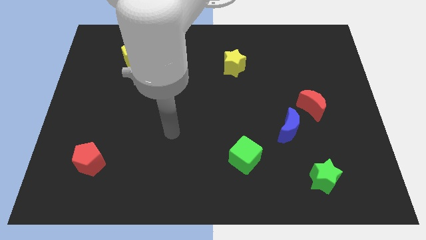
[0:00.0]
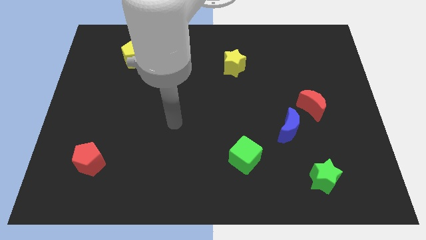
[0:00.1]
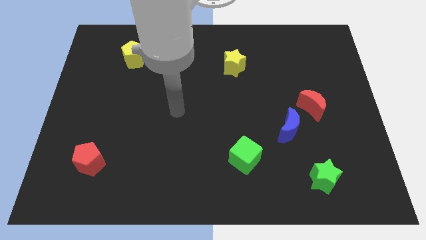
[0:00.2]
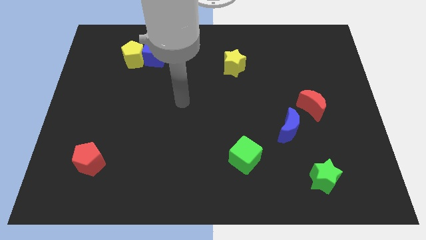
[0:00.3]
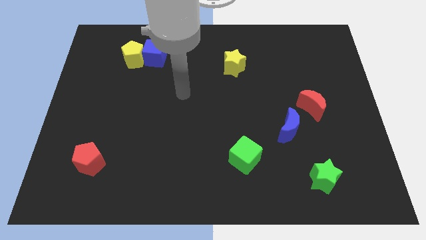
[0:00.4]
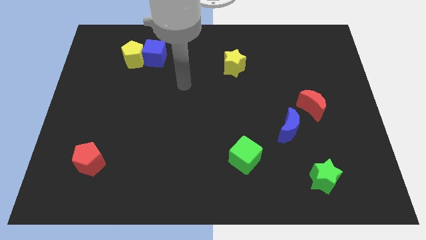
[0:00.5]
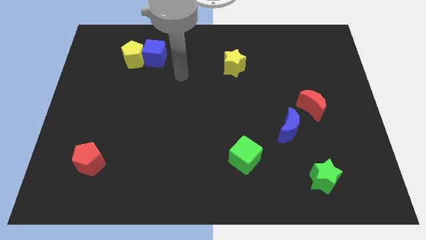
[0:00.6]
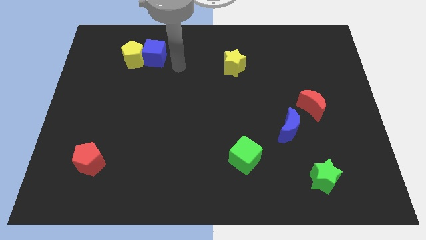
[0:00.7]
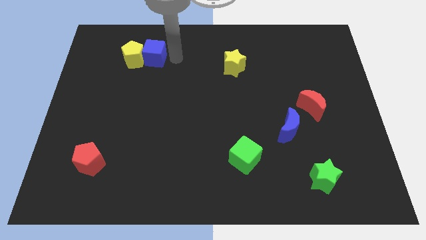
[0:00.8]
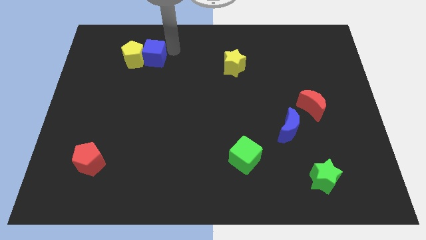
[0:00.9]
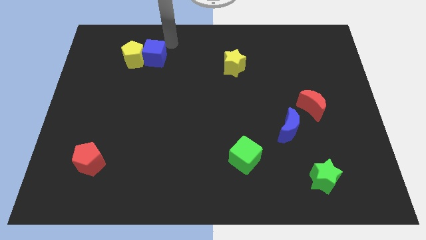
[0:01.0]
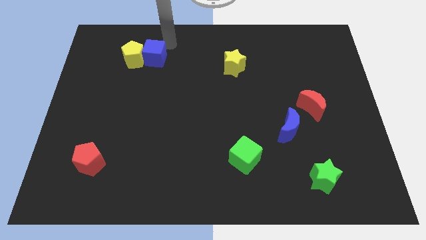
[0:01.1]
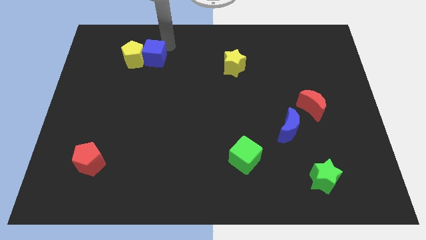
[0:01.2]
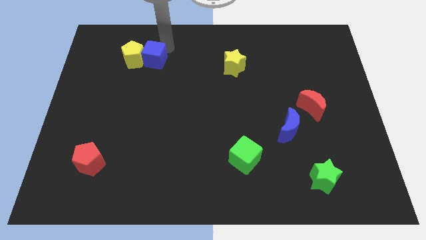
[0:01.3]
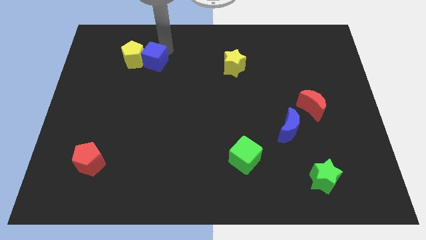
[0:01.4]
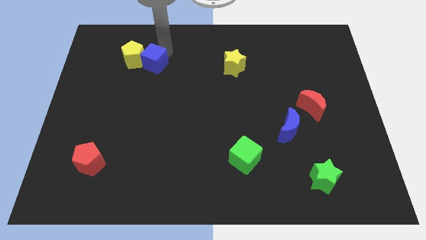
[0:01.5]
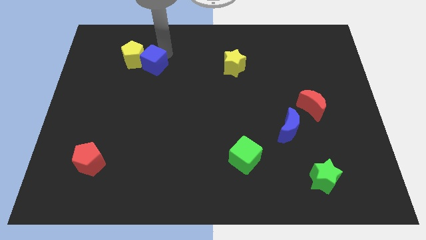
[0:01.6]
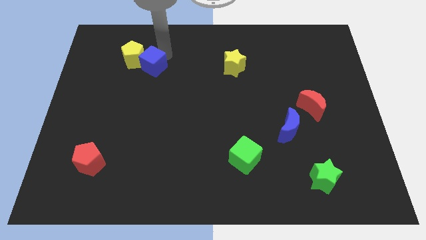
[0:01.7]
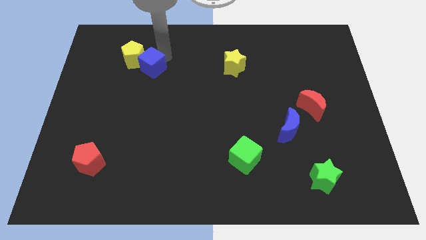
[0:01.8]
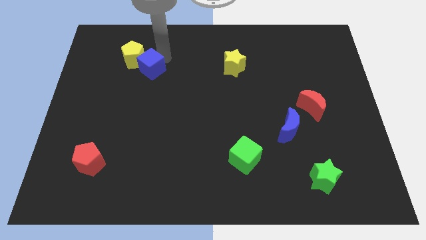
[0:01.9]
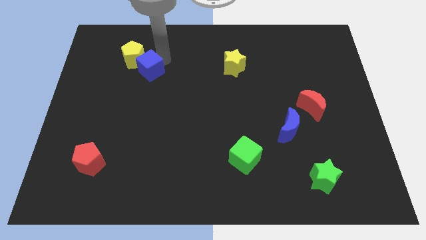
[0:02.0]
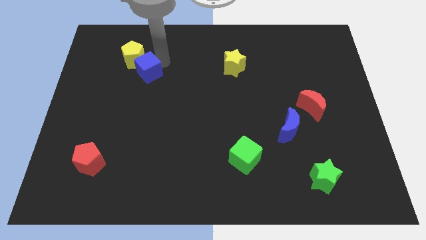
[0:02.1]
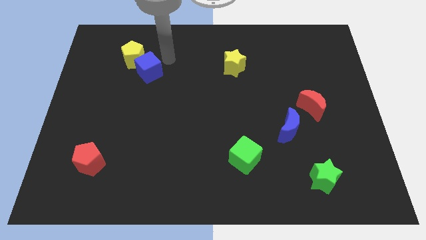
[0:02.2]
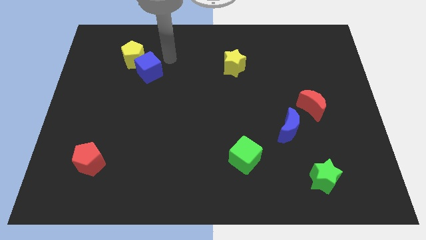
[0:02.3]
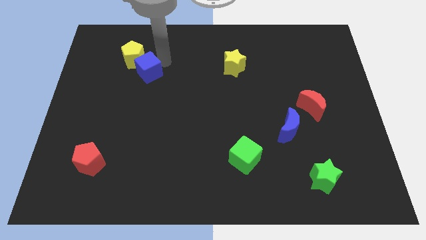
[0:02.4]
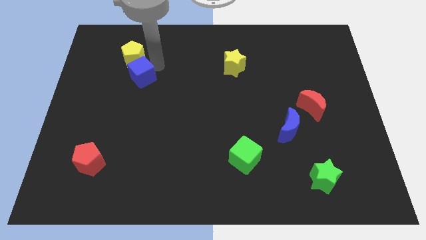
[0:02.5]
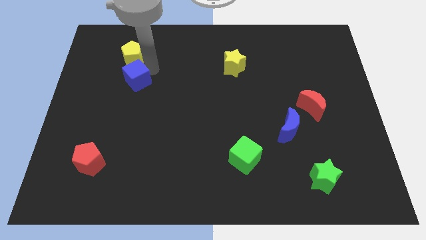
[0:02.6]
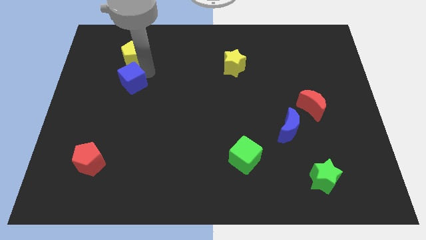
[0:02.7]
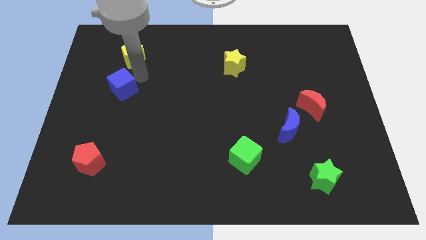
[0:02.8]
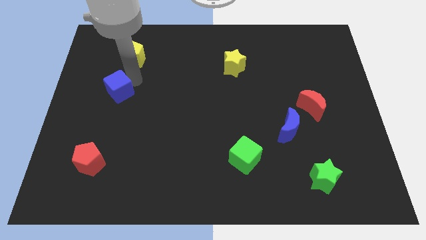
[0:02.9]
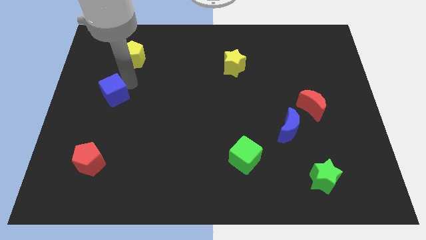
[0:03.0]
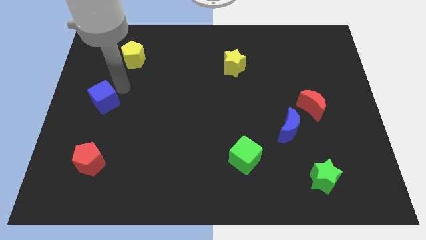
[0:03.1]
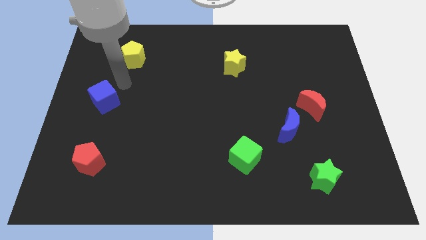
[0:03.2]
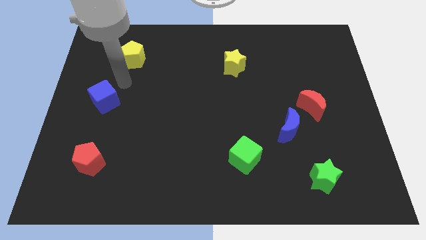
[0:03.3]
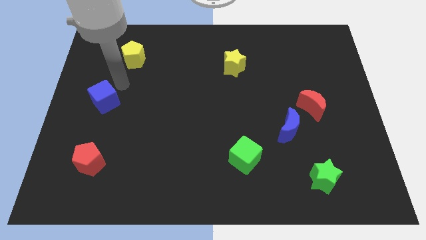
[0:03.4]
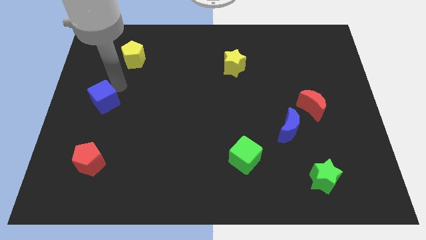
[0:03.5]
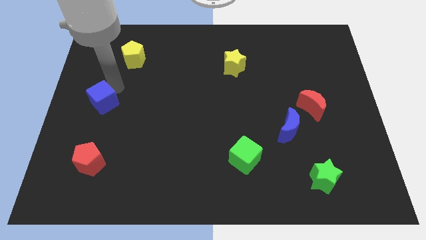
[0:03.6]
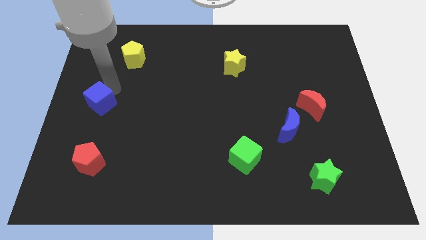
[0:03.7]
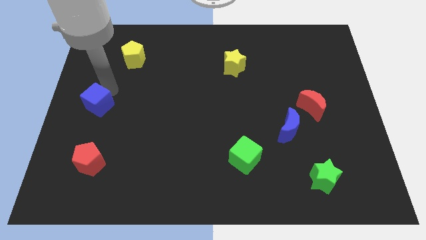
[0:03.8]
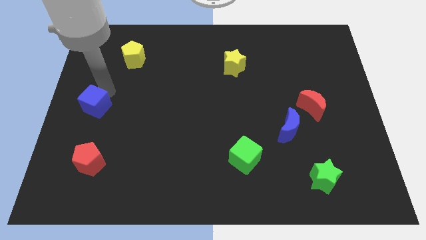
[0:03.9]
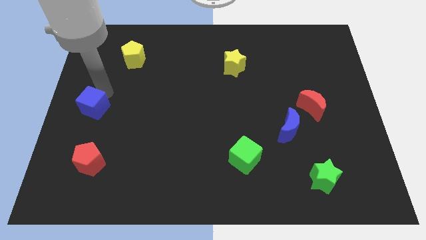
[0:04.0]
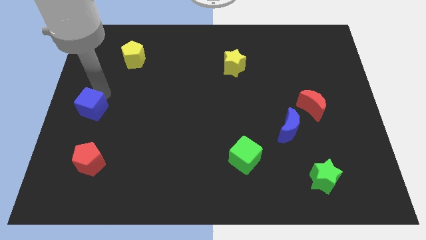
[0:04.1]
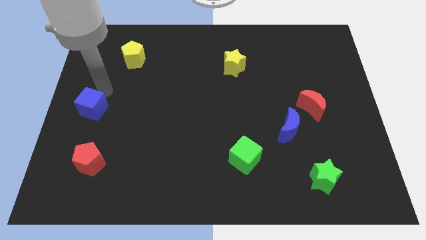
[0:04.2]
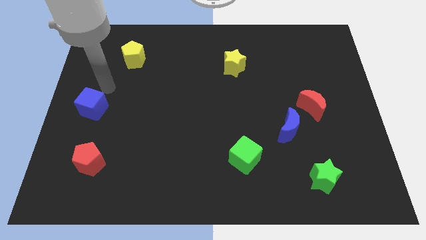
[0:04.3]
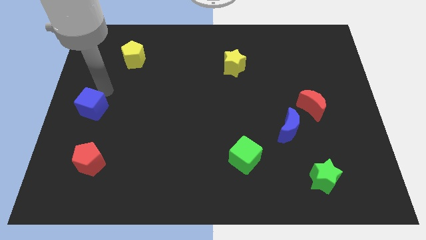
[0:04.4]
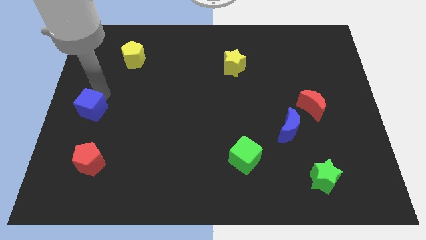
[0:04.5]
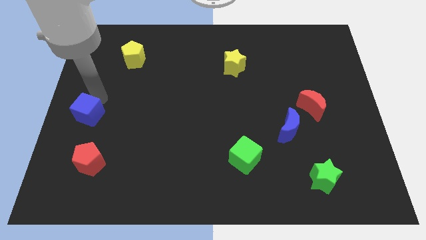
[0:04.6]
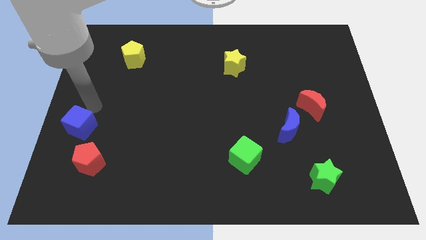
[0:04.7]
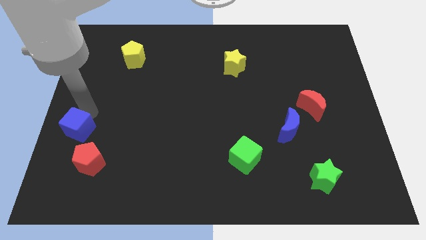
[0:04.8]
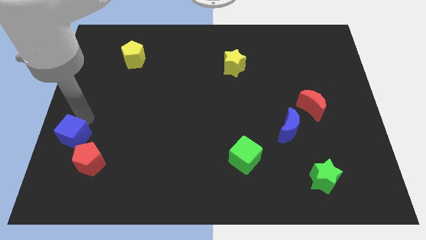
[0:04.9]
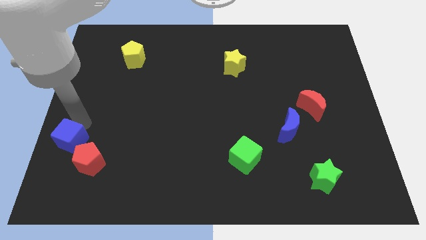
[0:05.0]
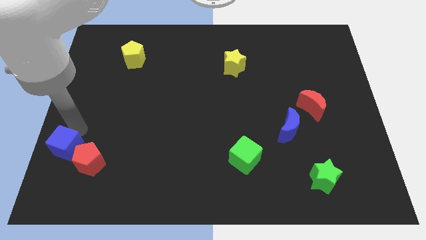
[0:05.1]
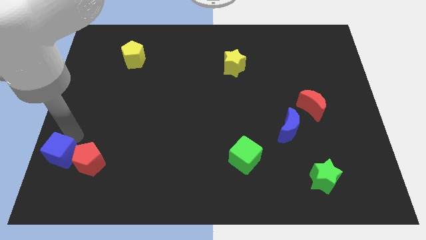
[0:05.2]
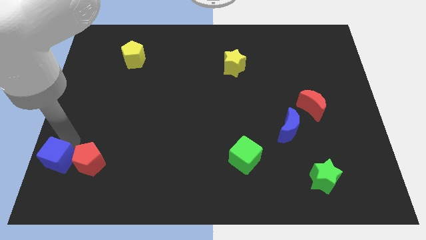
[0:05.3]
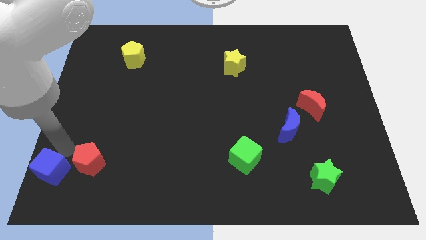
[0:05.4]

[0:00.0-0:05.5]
put the blue cube to the lower left corner

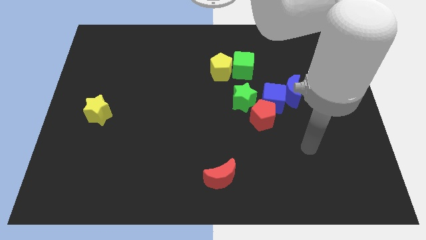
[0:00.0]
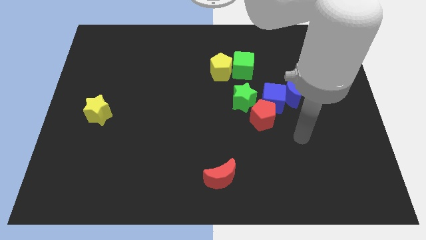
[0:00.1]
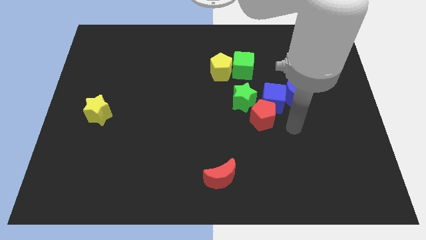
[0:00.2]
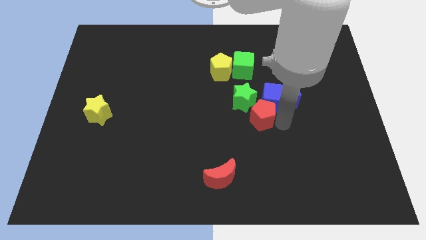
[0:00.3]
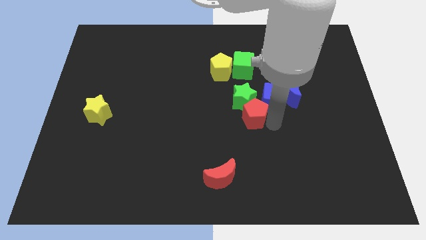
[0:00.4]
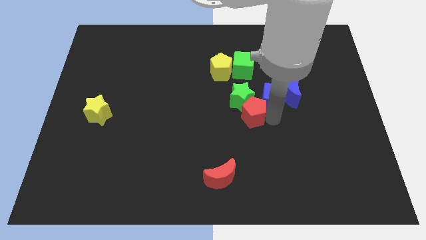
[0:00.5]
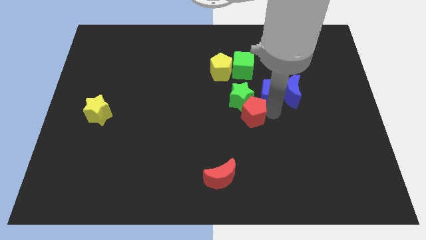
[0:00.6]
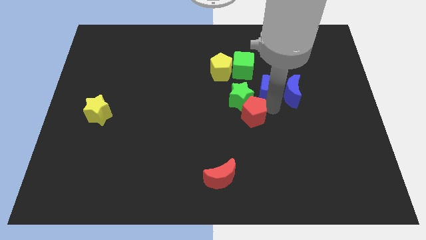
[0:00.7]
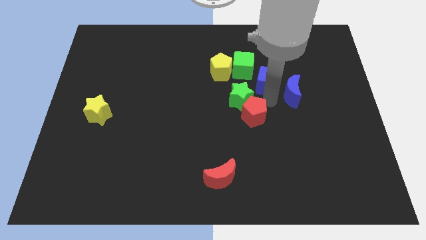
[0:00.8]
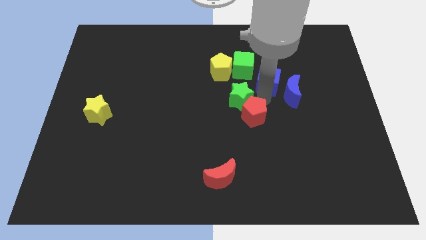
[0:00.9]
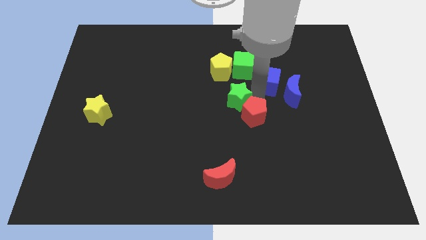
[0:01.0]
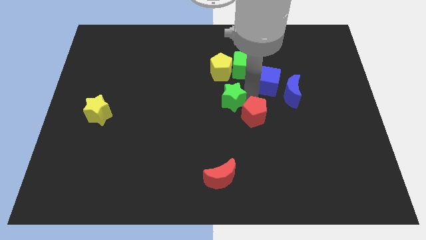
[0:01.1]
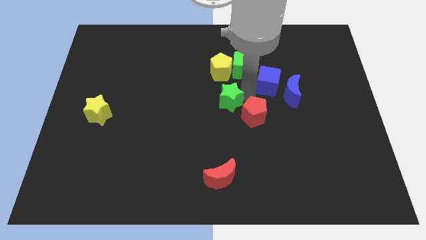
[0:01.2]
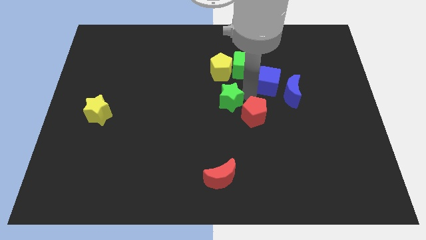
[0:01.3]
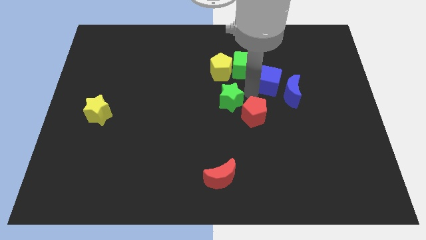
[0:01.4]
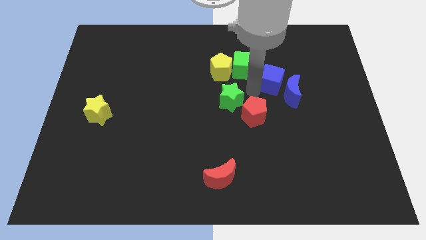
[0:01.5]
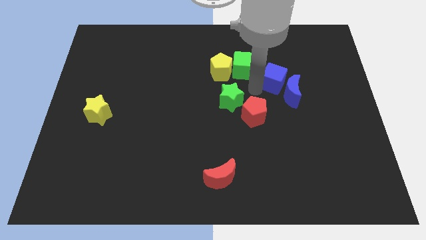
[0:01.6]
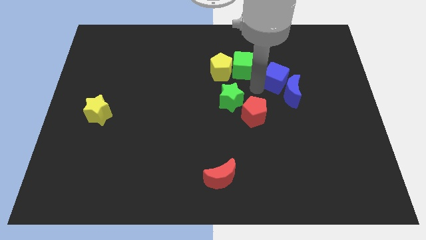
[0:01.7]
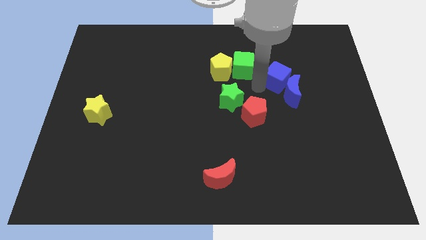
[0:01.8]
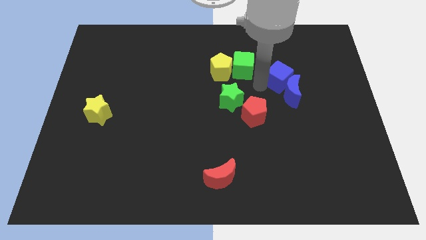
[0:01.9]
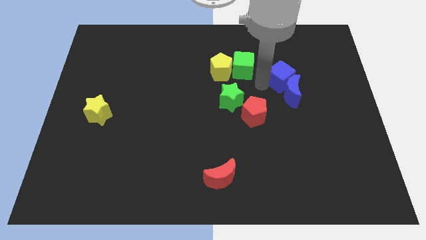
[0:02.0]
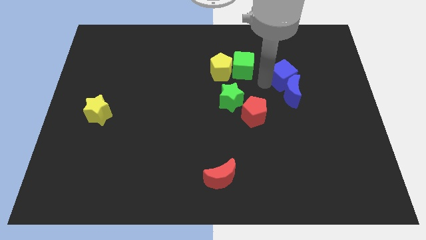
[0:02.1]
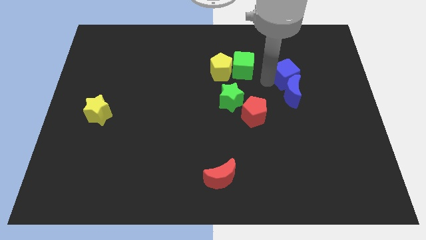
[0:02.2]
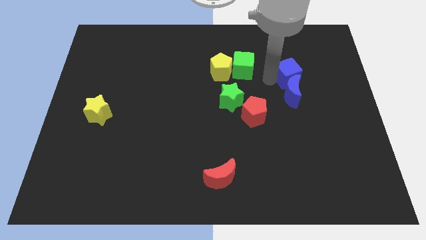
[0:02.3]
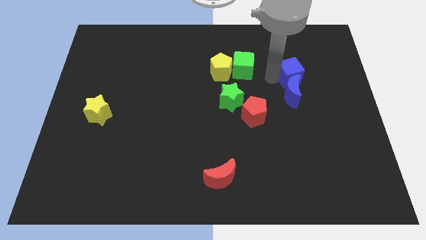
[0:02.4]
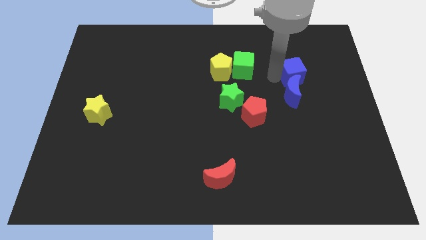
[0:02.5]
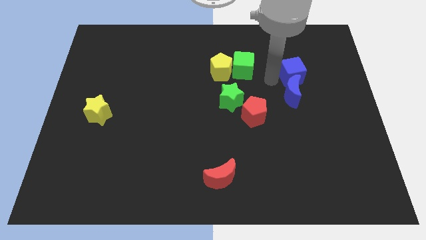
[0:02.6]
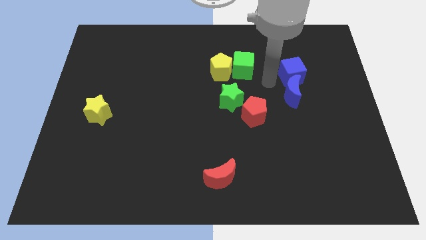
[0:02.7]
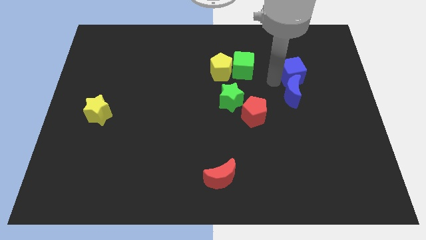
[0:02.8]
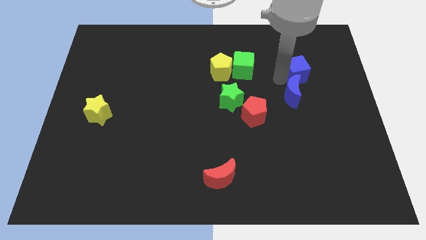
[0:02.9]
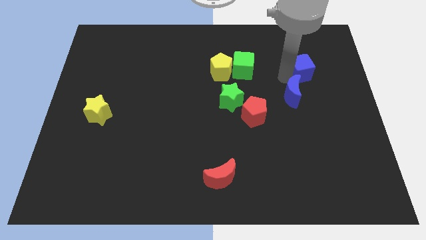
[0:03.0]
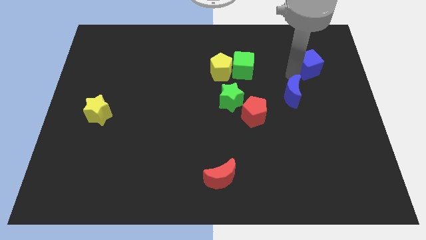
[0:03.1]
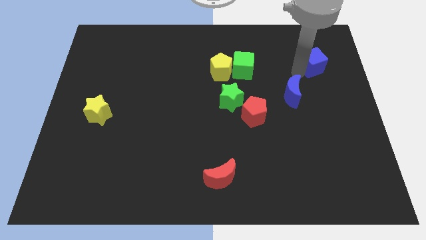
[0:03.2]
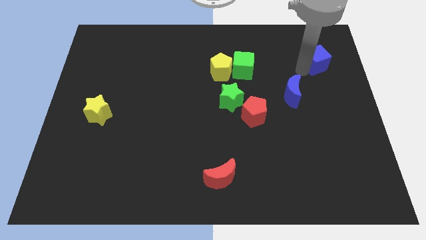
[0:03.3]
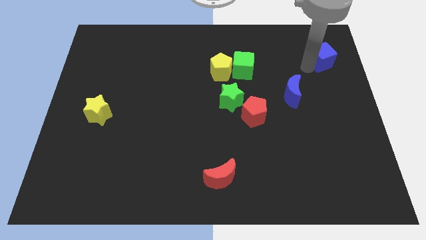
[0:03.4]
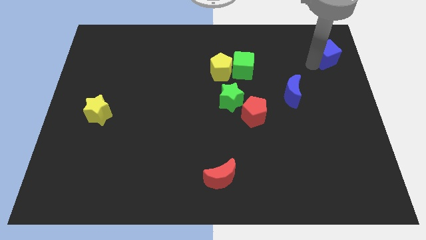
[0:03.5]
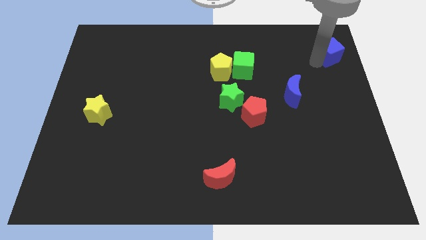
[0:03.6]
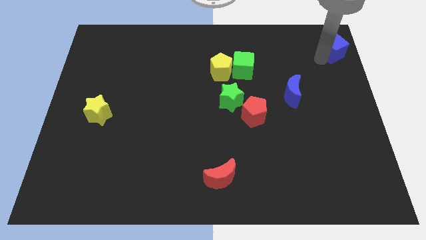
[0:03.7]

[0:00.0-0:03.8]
push the blue cube to the top right corner
